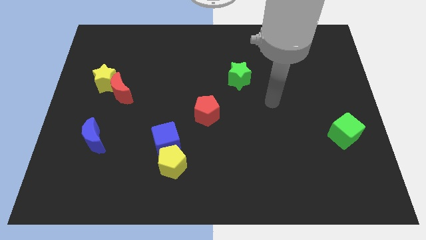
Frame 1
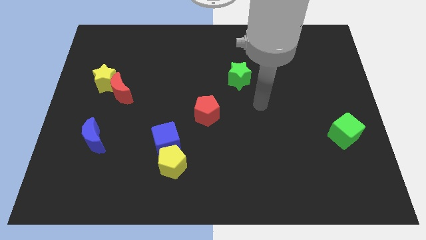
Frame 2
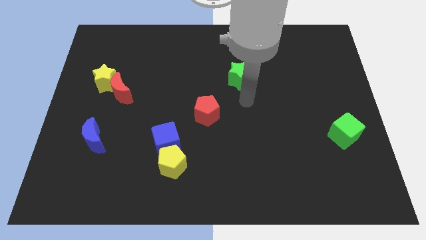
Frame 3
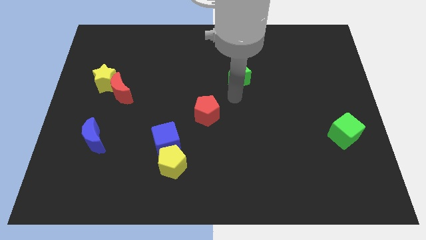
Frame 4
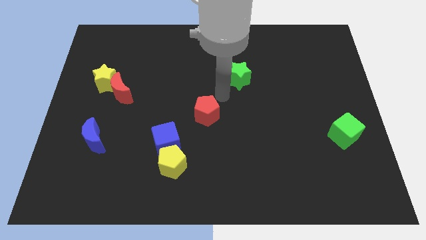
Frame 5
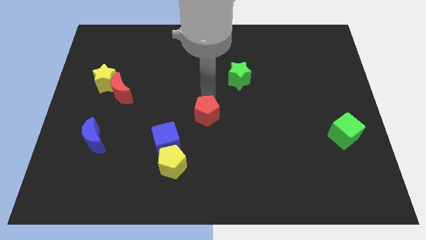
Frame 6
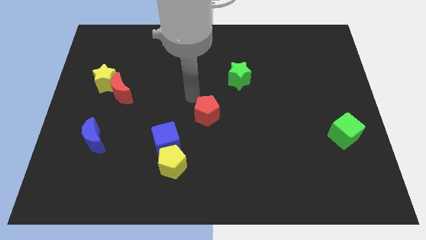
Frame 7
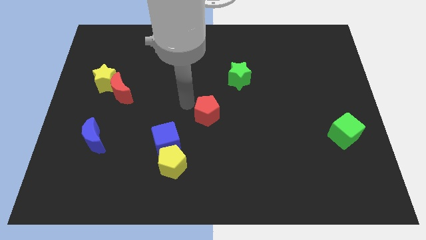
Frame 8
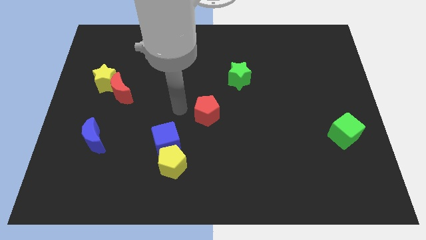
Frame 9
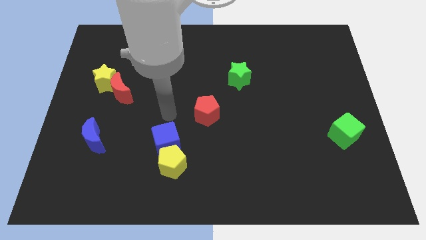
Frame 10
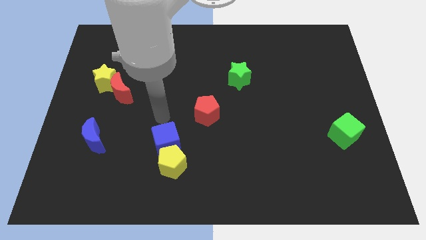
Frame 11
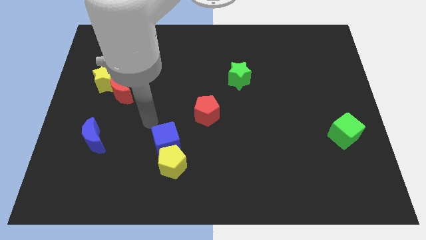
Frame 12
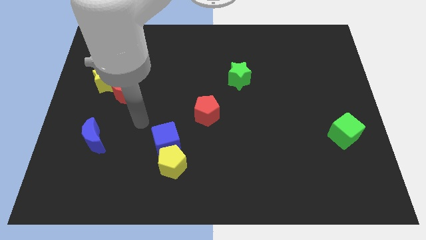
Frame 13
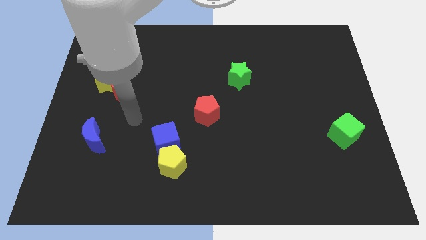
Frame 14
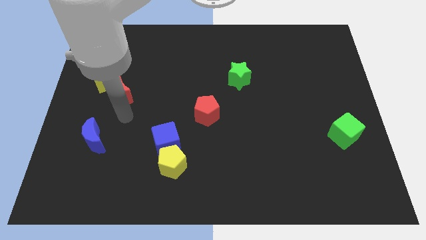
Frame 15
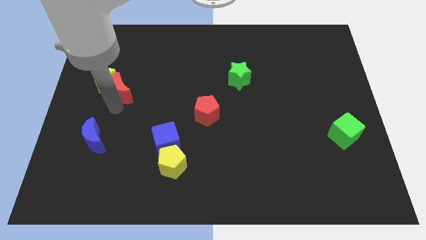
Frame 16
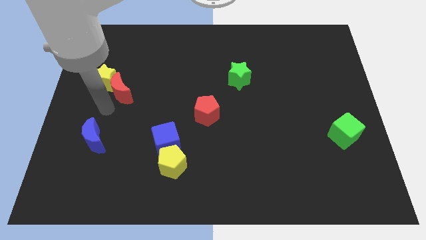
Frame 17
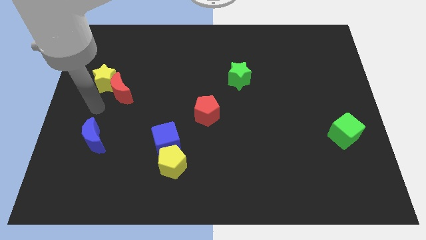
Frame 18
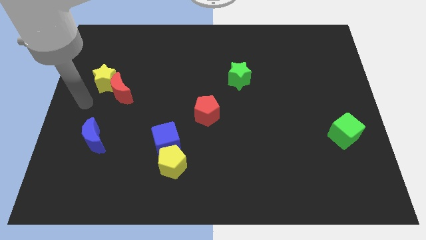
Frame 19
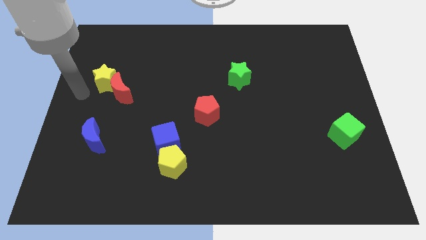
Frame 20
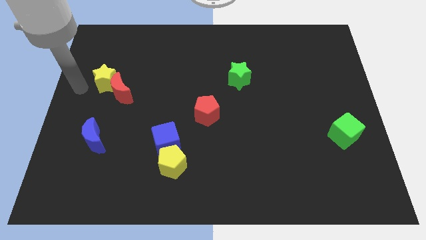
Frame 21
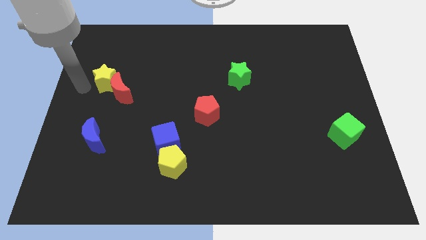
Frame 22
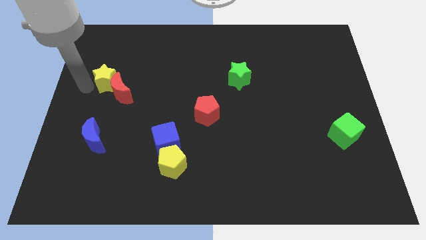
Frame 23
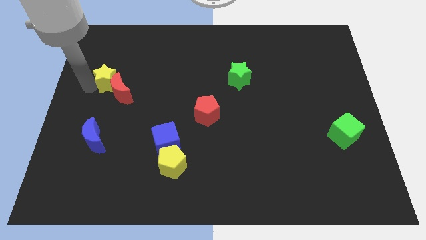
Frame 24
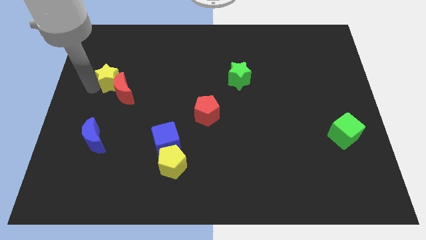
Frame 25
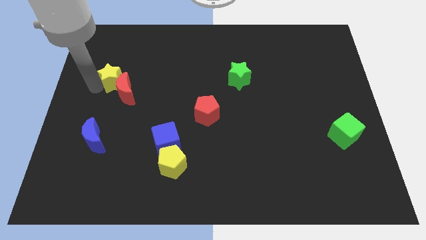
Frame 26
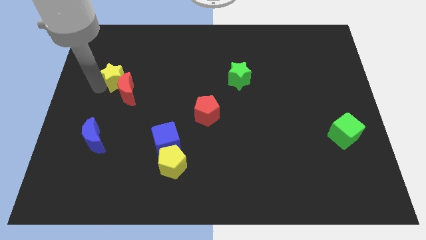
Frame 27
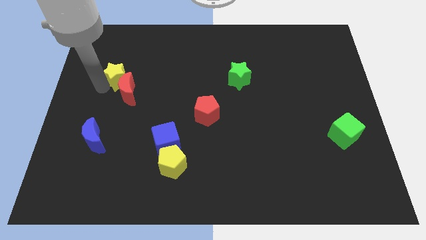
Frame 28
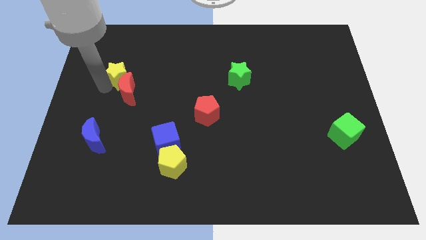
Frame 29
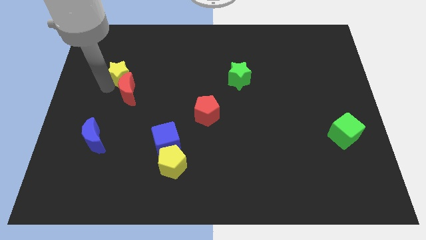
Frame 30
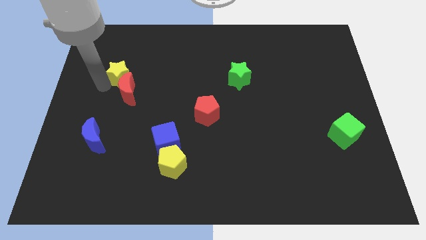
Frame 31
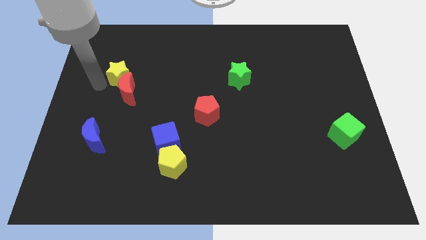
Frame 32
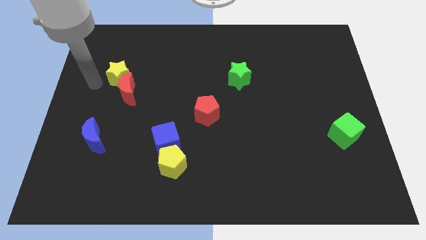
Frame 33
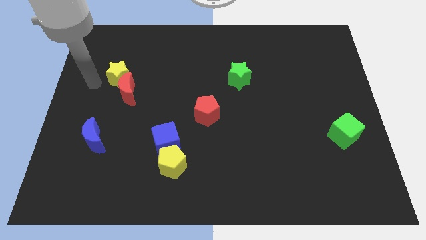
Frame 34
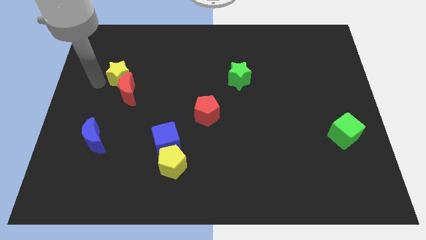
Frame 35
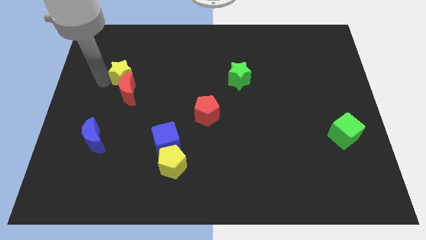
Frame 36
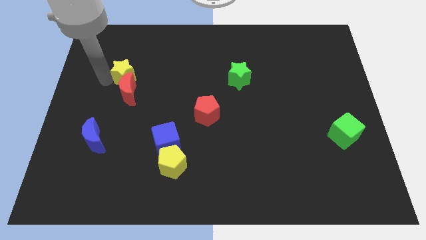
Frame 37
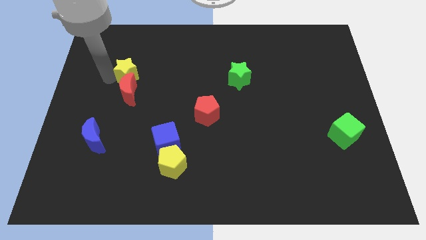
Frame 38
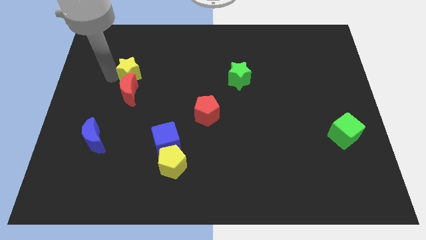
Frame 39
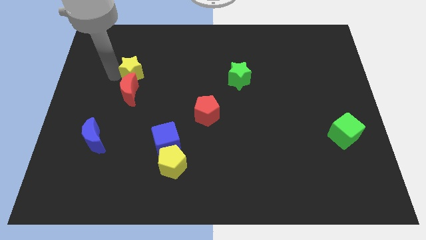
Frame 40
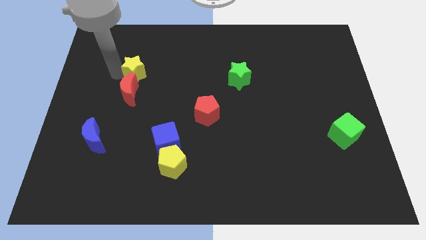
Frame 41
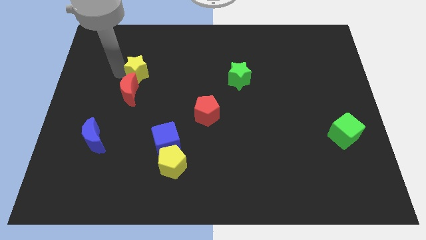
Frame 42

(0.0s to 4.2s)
slightly push the yellow star to the right

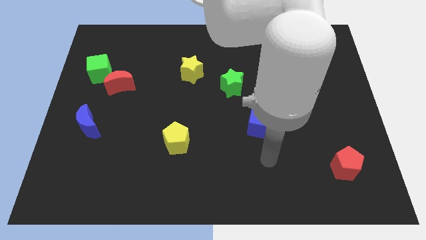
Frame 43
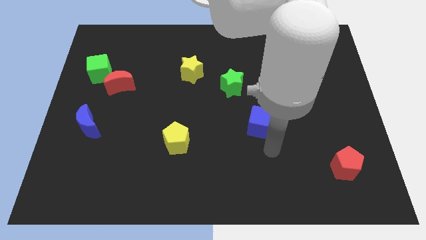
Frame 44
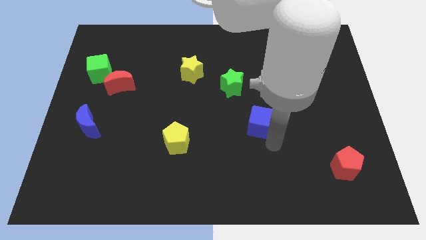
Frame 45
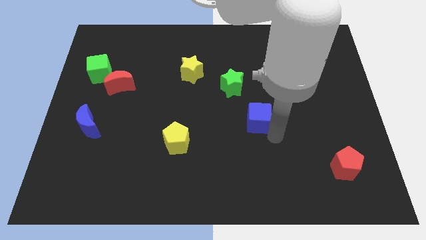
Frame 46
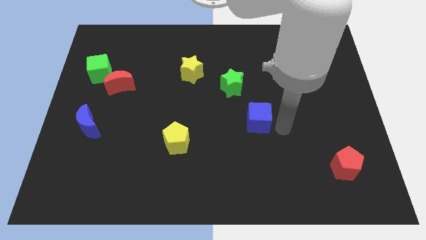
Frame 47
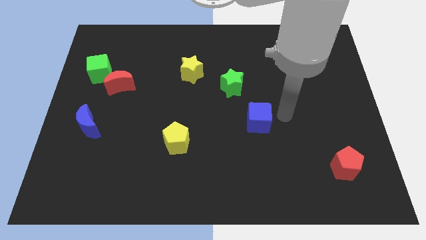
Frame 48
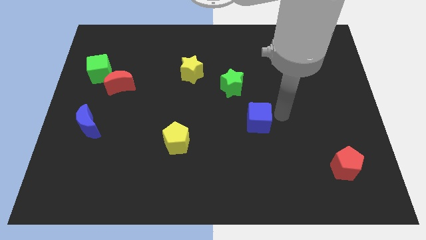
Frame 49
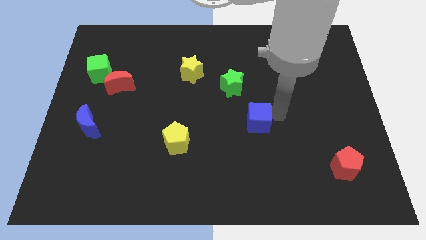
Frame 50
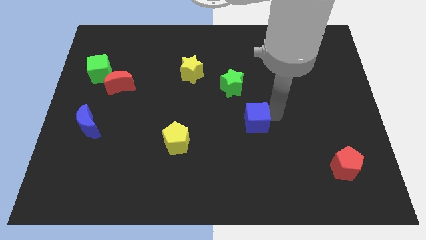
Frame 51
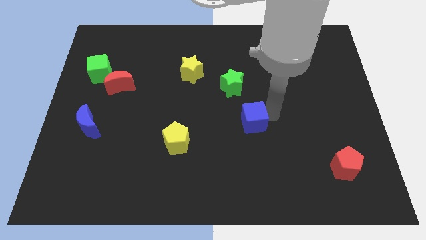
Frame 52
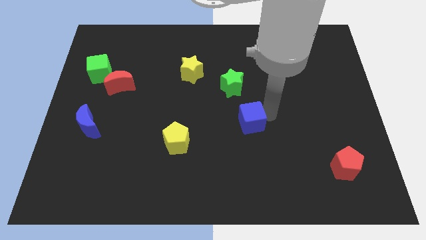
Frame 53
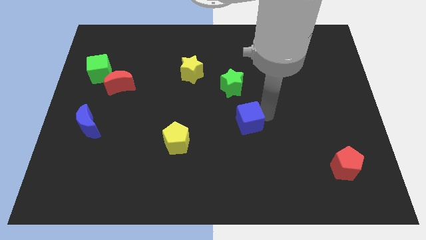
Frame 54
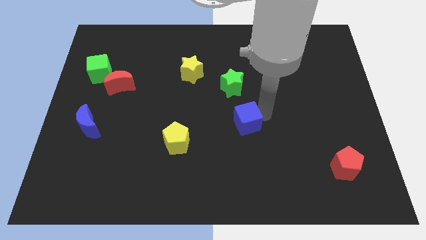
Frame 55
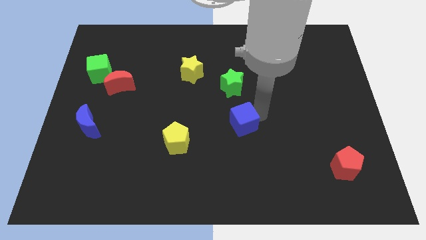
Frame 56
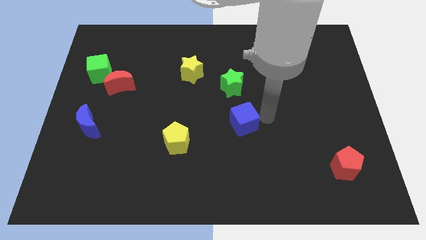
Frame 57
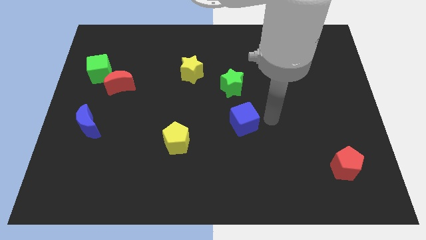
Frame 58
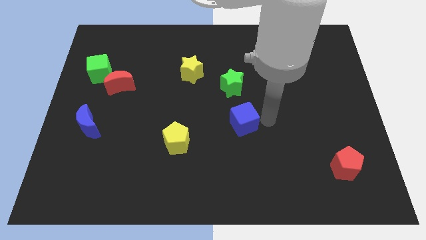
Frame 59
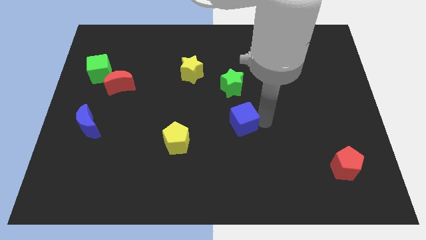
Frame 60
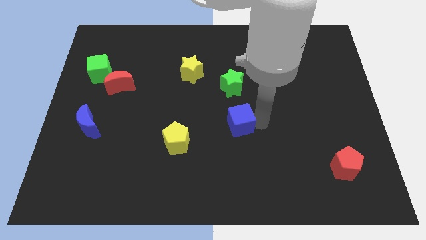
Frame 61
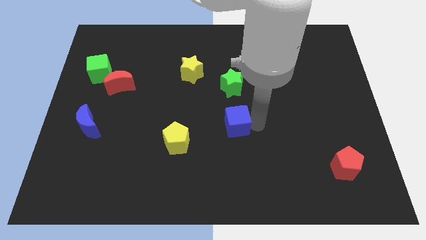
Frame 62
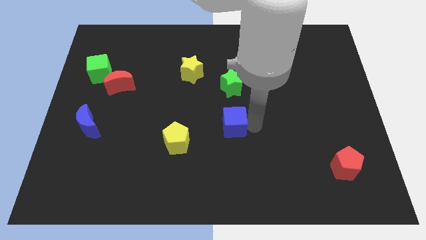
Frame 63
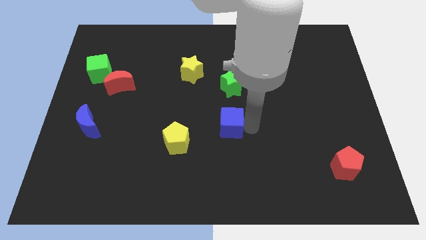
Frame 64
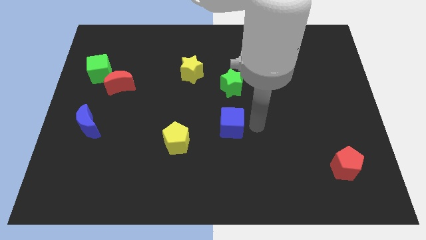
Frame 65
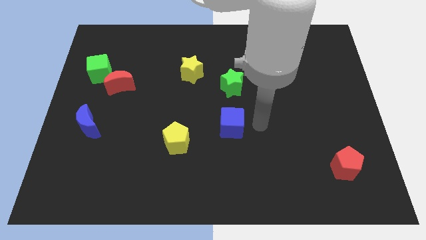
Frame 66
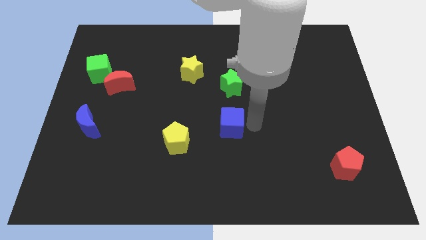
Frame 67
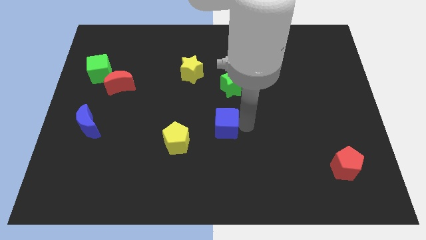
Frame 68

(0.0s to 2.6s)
slide the blue cube slightly left

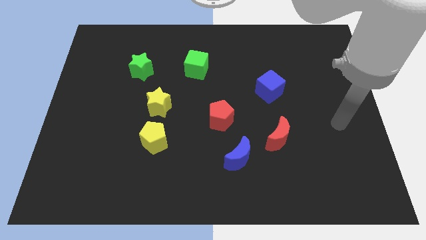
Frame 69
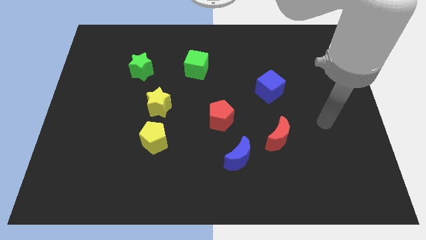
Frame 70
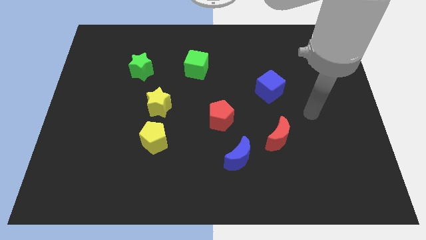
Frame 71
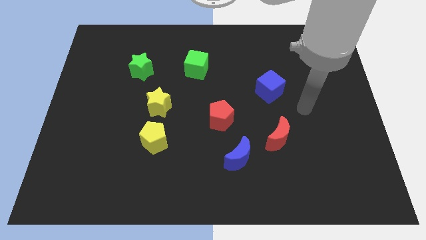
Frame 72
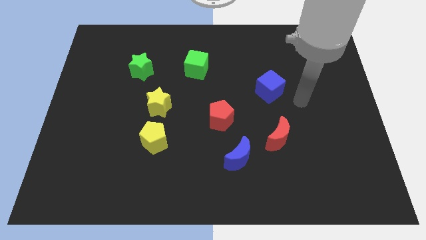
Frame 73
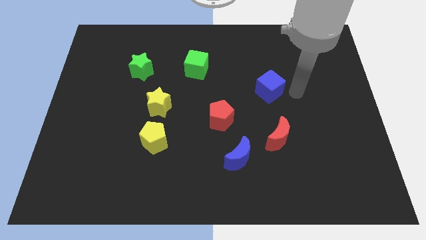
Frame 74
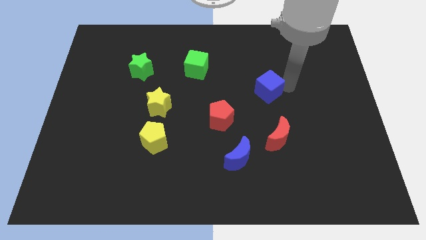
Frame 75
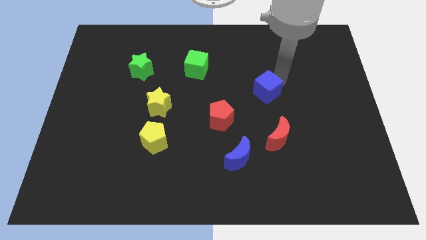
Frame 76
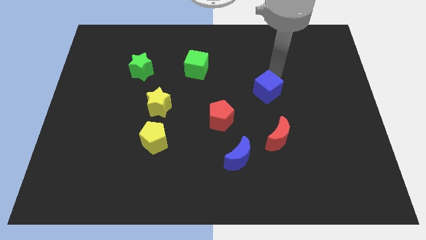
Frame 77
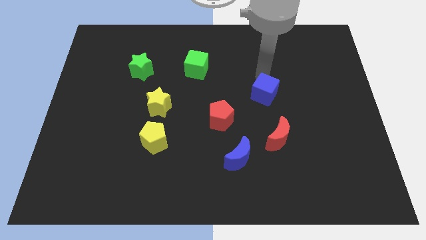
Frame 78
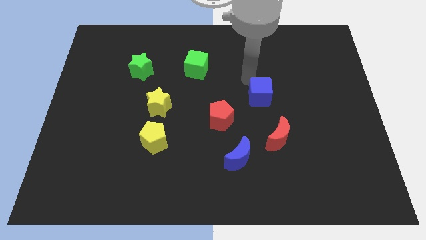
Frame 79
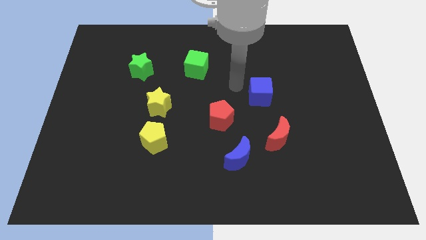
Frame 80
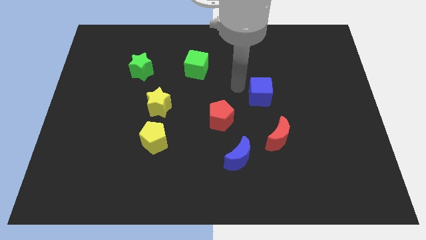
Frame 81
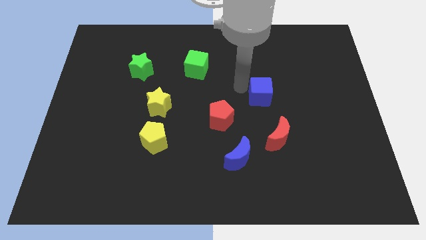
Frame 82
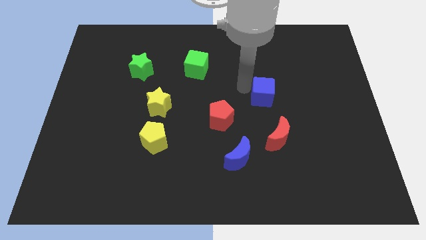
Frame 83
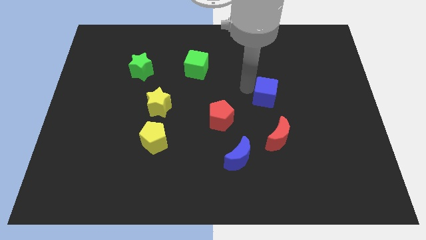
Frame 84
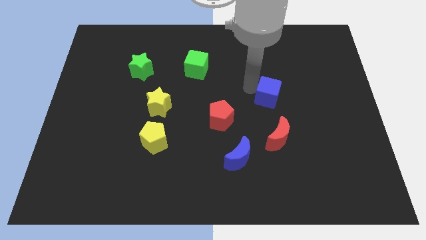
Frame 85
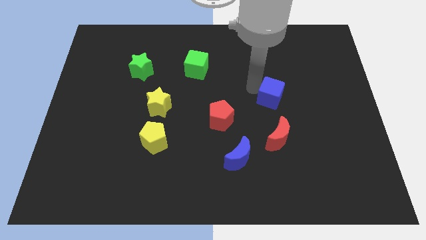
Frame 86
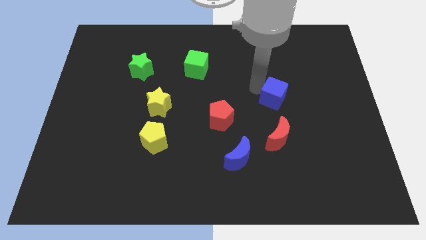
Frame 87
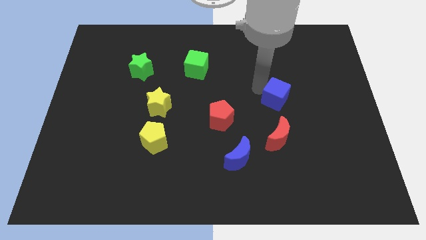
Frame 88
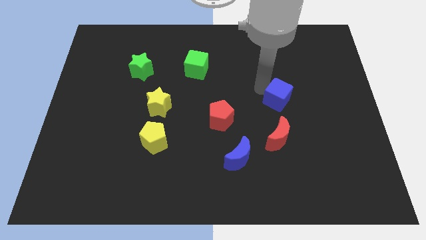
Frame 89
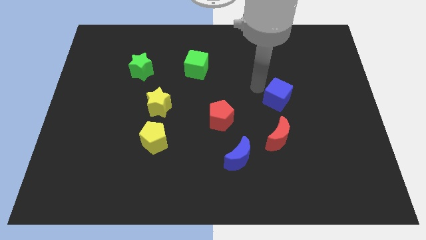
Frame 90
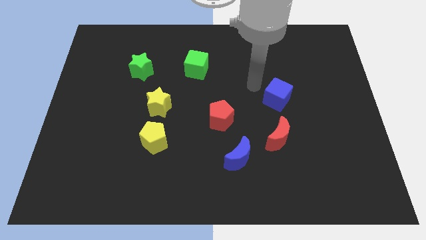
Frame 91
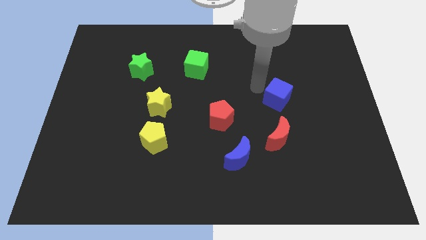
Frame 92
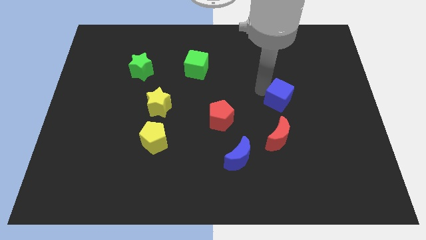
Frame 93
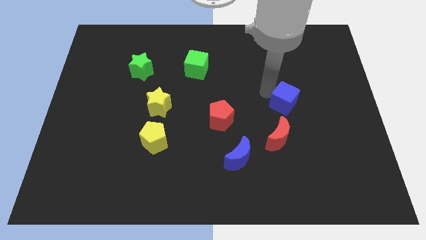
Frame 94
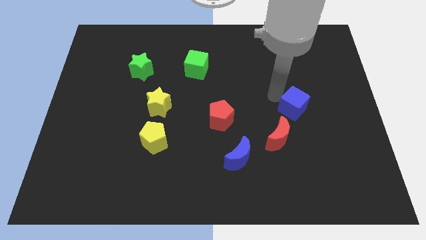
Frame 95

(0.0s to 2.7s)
slightly move the blue cube diagonally down and to the right
